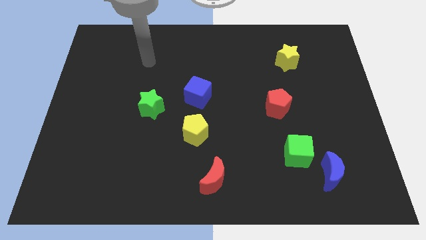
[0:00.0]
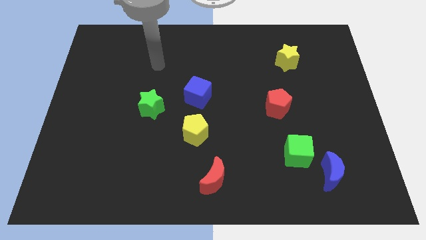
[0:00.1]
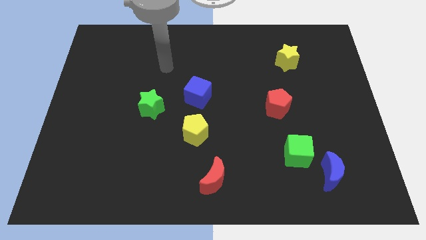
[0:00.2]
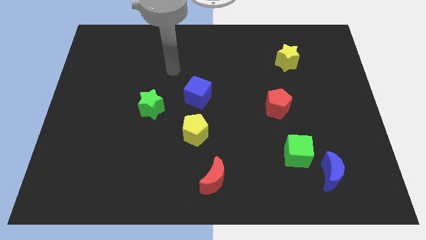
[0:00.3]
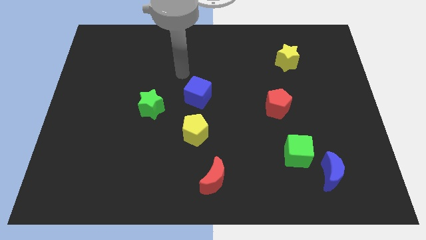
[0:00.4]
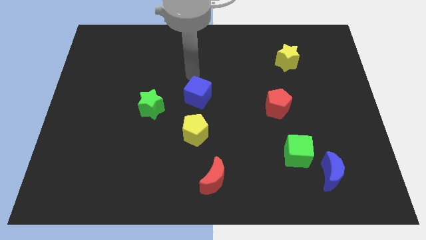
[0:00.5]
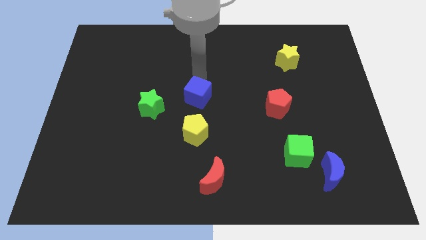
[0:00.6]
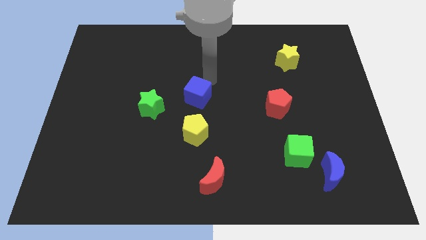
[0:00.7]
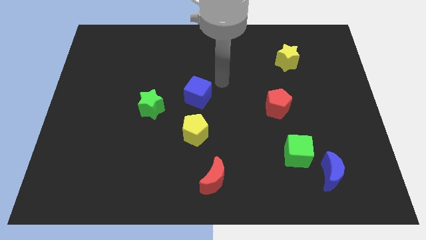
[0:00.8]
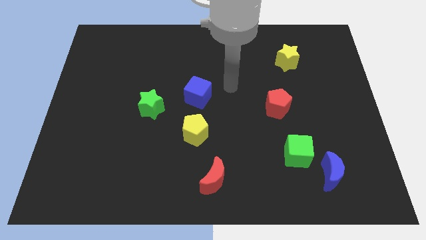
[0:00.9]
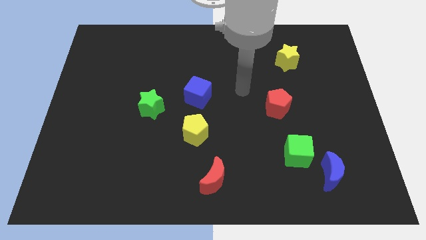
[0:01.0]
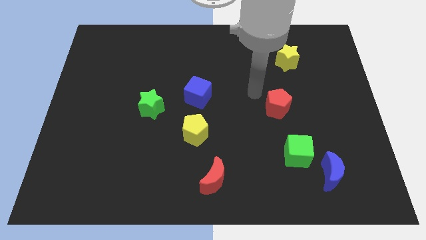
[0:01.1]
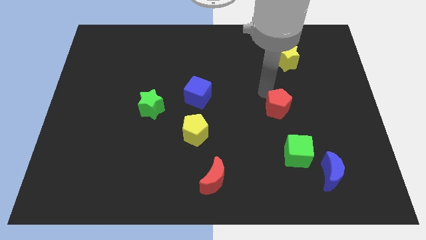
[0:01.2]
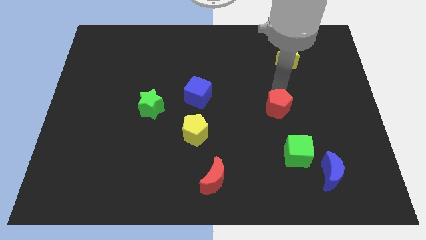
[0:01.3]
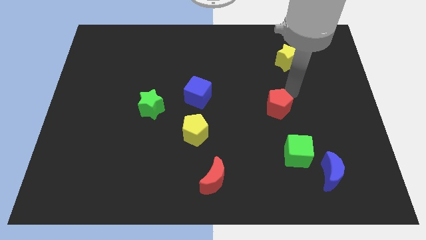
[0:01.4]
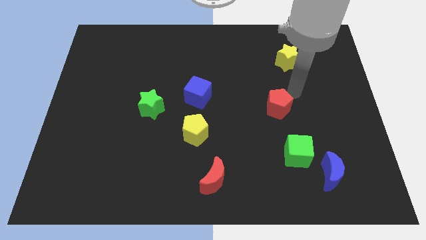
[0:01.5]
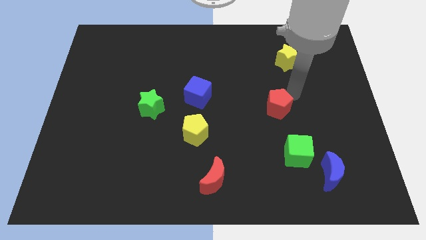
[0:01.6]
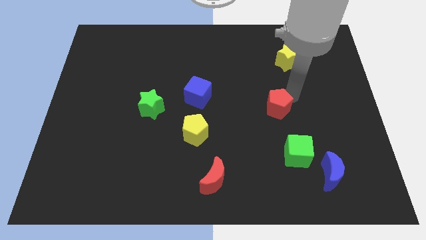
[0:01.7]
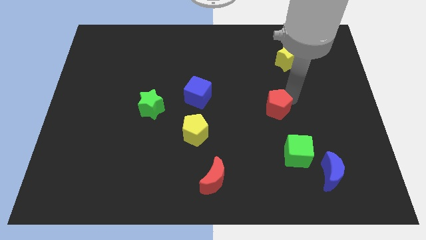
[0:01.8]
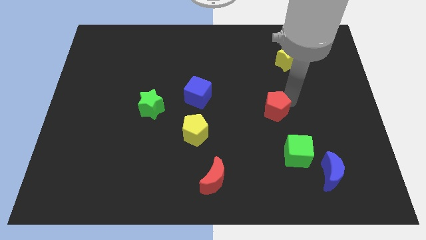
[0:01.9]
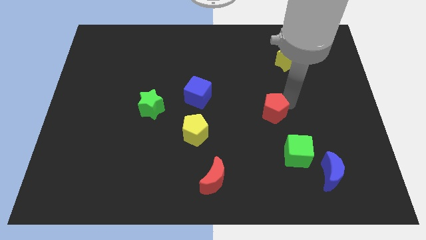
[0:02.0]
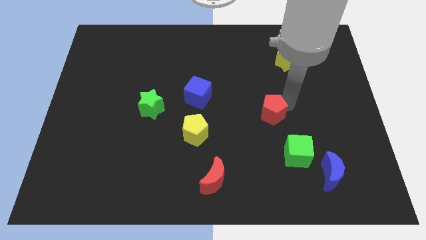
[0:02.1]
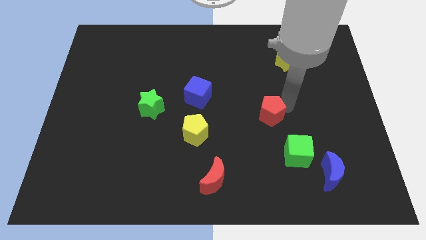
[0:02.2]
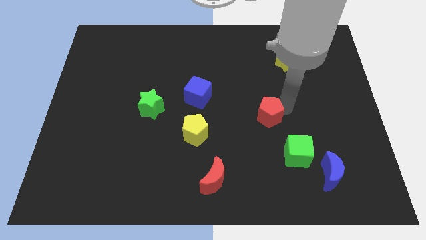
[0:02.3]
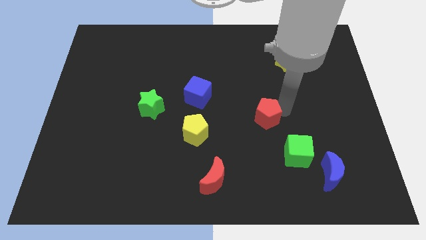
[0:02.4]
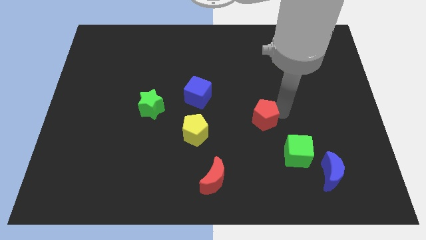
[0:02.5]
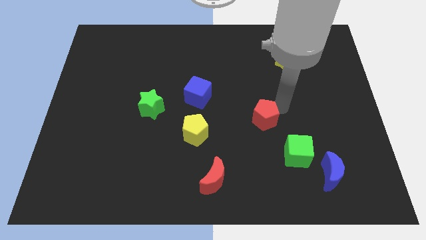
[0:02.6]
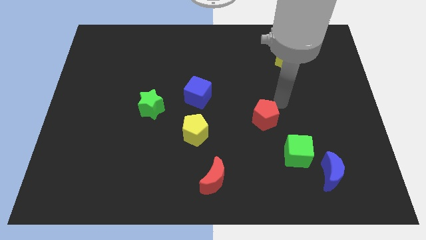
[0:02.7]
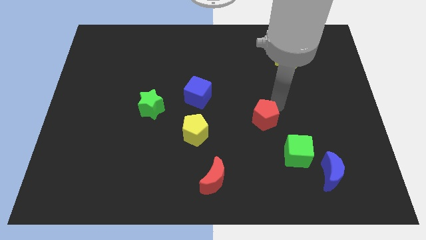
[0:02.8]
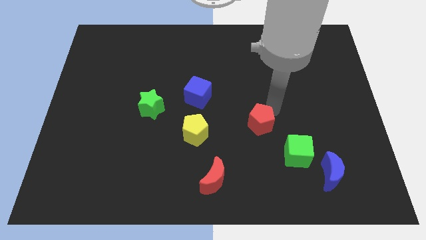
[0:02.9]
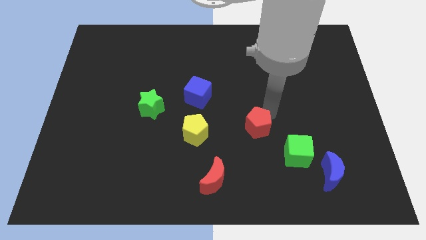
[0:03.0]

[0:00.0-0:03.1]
slightly move the red pentagon downwards and left

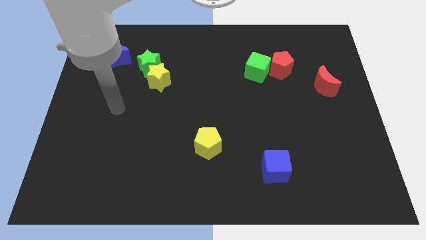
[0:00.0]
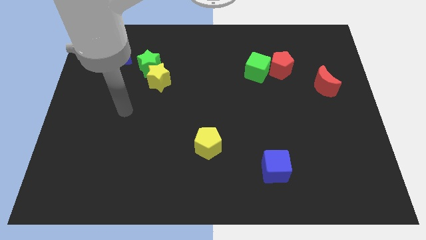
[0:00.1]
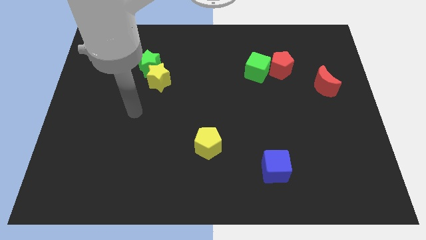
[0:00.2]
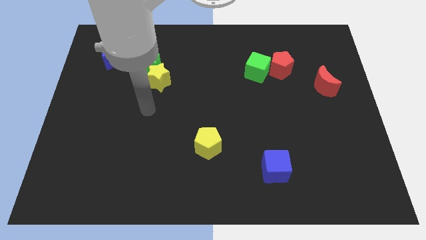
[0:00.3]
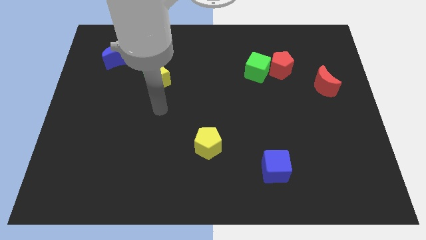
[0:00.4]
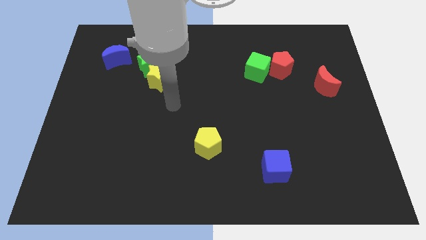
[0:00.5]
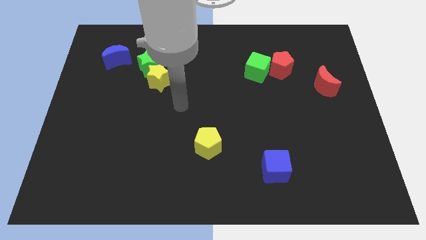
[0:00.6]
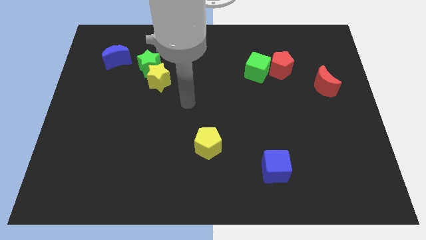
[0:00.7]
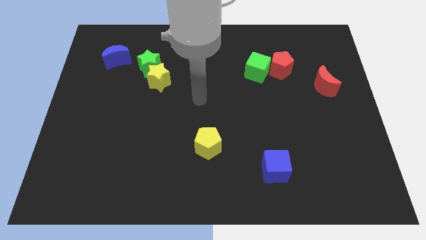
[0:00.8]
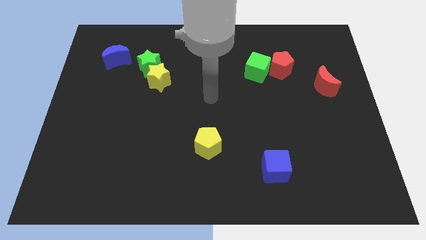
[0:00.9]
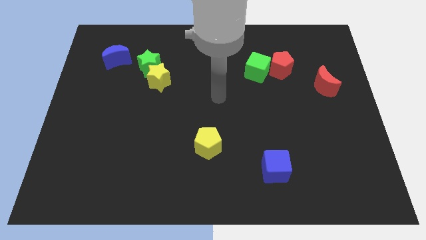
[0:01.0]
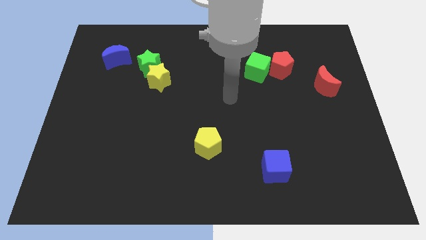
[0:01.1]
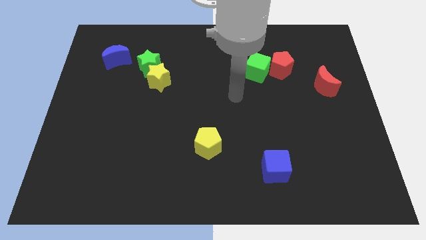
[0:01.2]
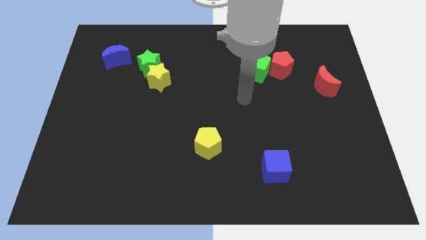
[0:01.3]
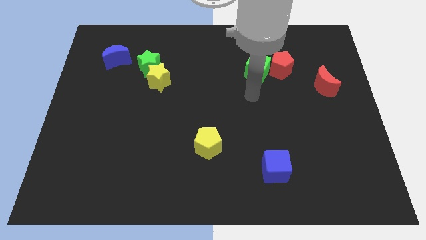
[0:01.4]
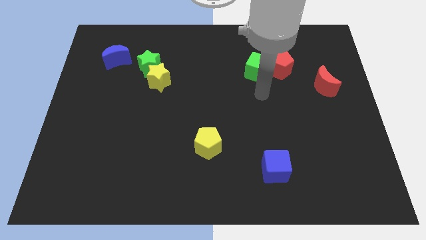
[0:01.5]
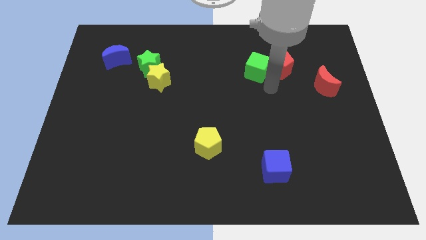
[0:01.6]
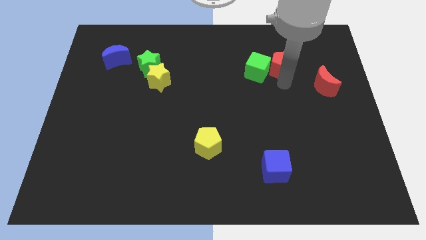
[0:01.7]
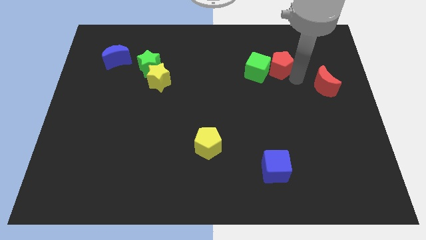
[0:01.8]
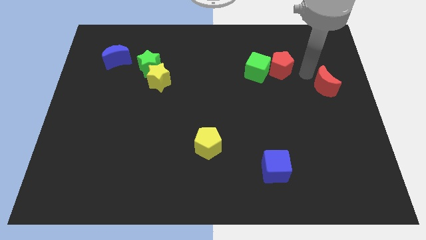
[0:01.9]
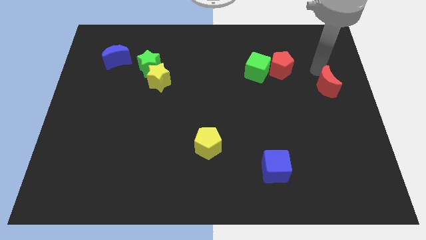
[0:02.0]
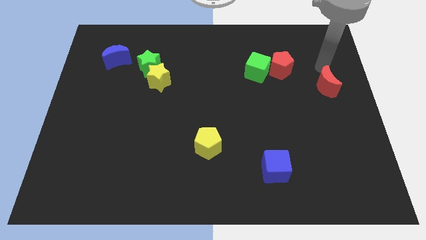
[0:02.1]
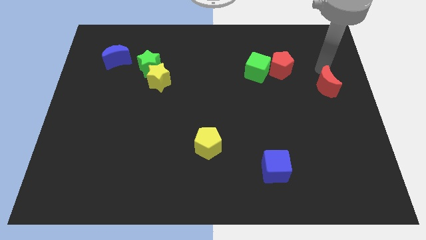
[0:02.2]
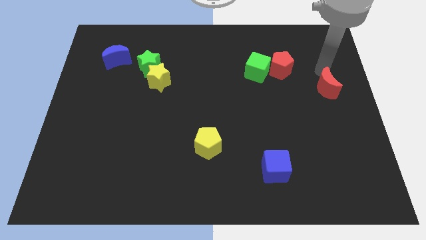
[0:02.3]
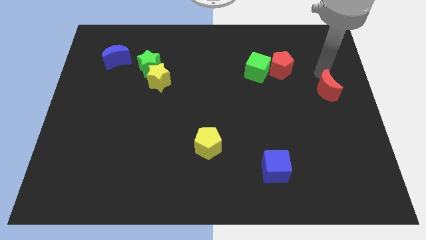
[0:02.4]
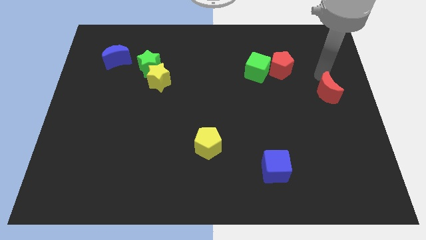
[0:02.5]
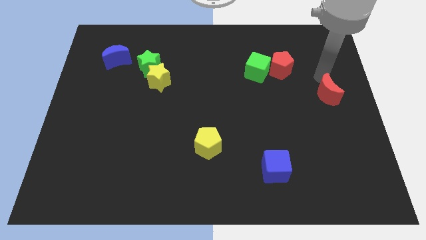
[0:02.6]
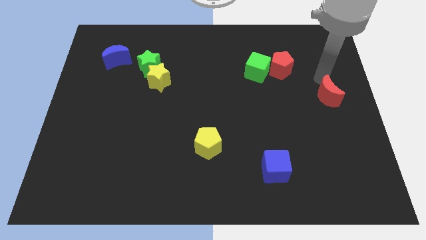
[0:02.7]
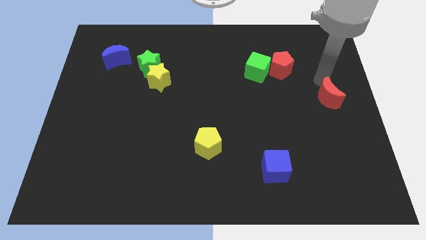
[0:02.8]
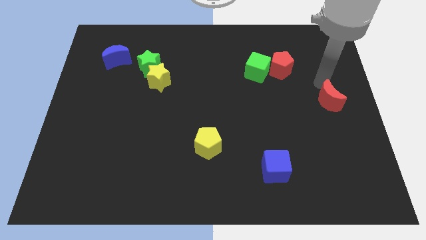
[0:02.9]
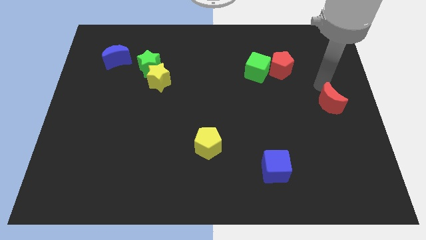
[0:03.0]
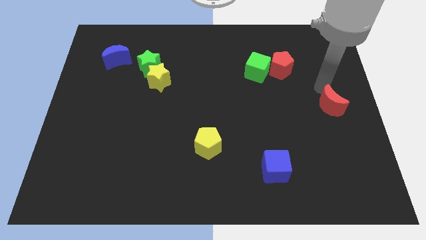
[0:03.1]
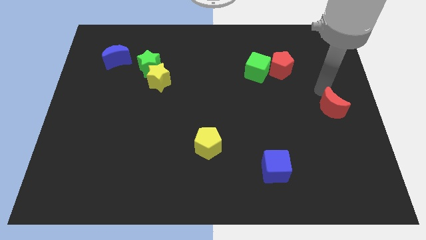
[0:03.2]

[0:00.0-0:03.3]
slide the red moon down slightly

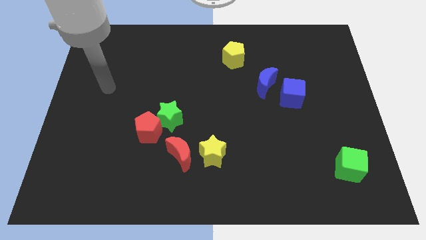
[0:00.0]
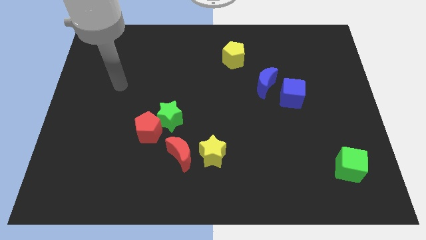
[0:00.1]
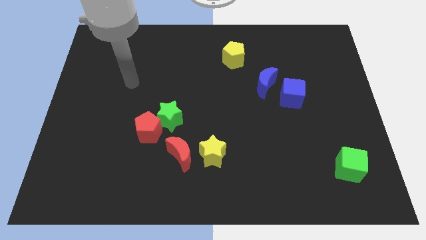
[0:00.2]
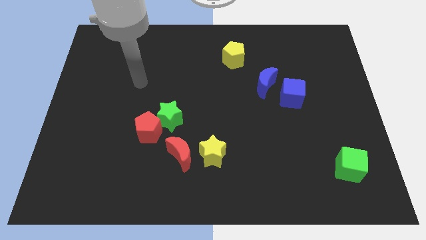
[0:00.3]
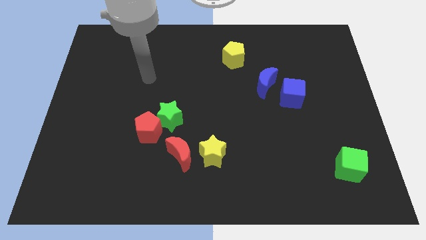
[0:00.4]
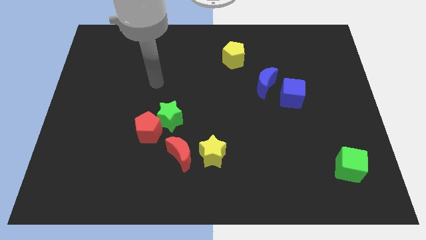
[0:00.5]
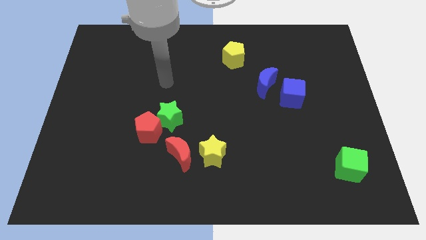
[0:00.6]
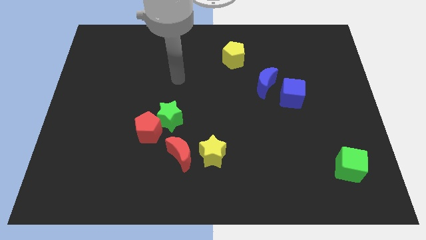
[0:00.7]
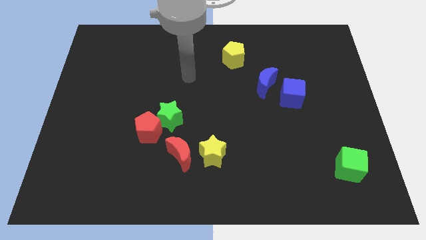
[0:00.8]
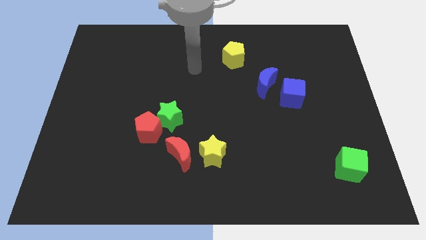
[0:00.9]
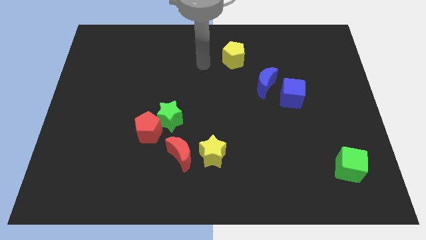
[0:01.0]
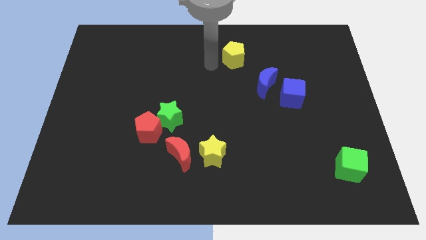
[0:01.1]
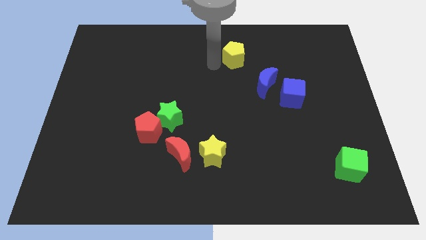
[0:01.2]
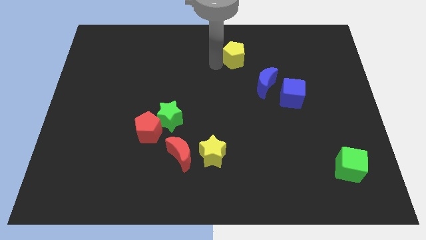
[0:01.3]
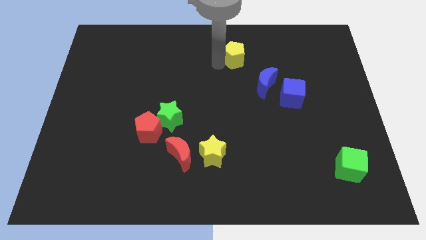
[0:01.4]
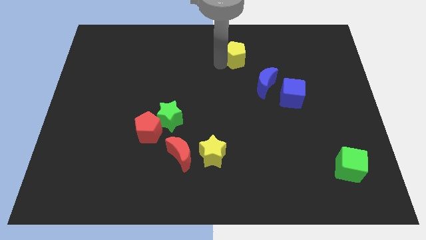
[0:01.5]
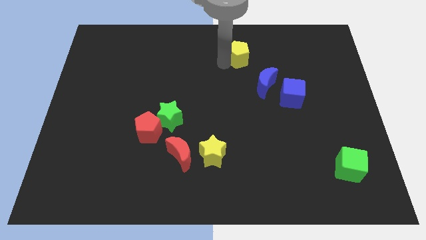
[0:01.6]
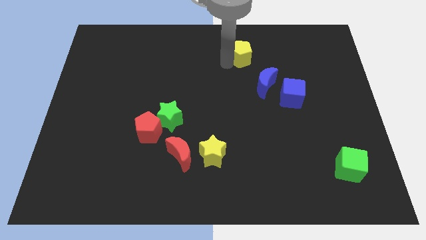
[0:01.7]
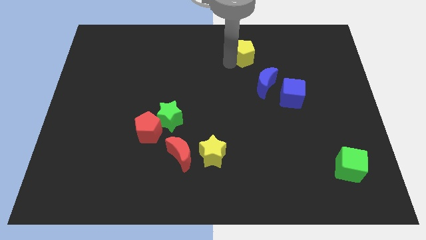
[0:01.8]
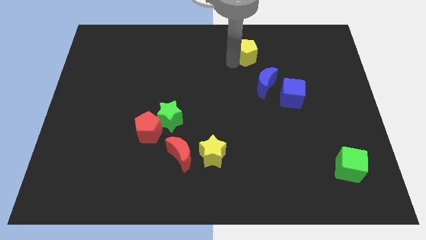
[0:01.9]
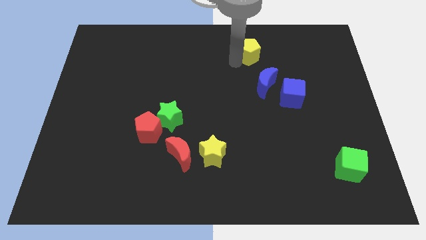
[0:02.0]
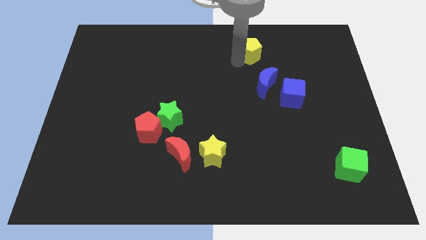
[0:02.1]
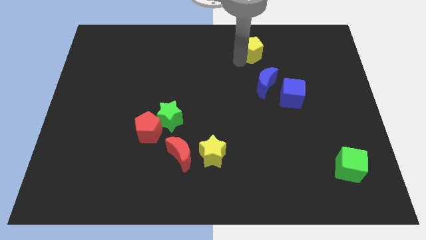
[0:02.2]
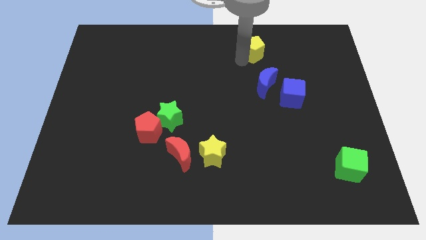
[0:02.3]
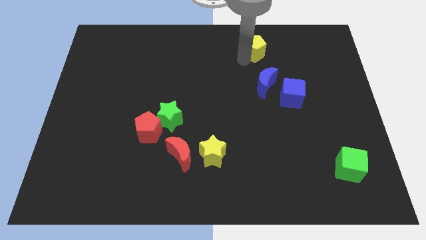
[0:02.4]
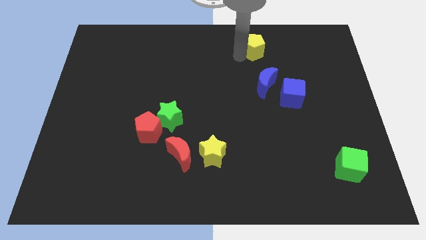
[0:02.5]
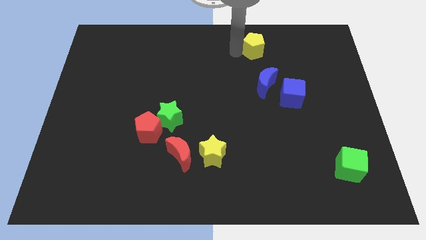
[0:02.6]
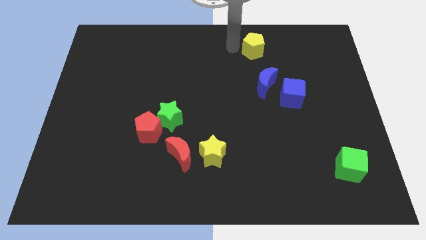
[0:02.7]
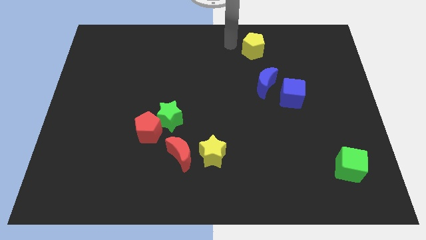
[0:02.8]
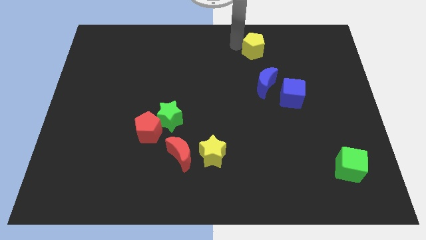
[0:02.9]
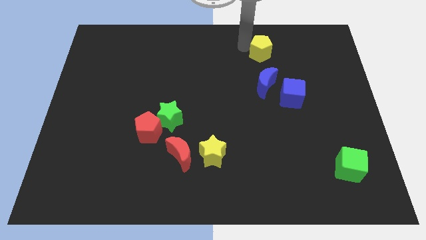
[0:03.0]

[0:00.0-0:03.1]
push the yellow pentagon slightly to the right
